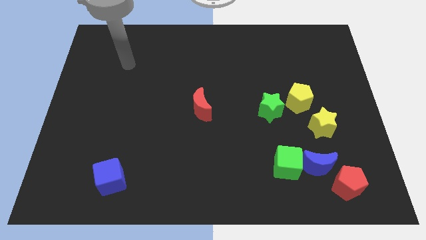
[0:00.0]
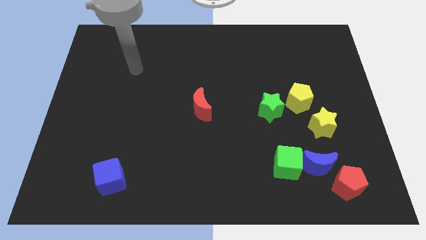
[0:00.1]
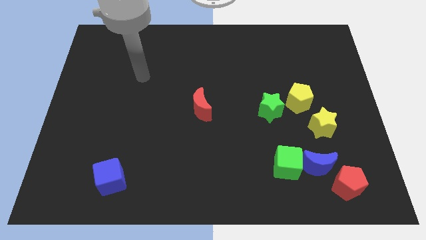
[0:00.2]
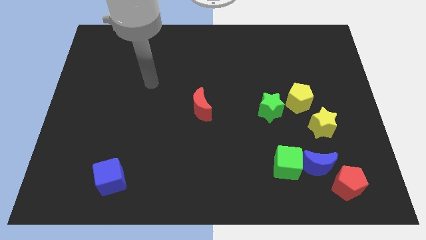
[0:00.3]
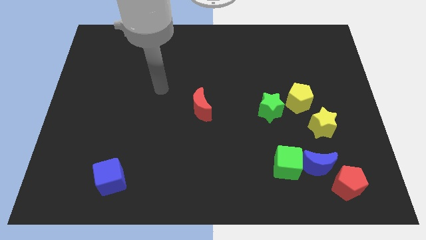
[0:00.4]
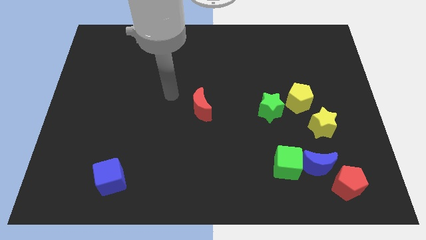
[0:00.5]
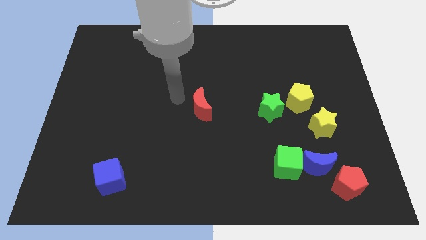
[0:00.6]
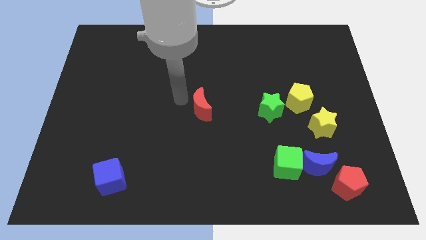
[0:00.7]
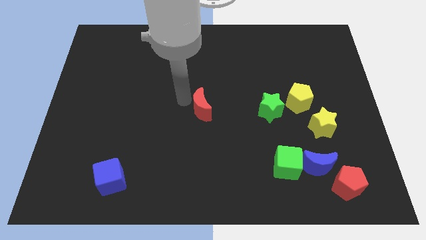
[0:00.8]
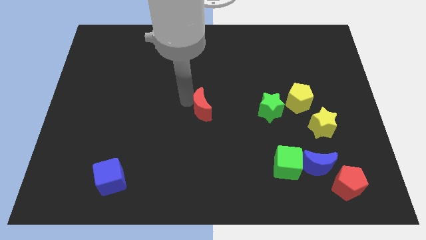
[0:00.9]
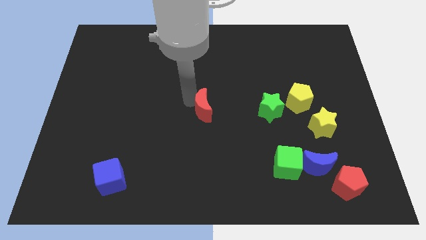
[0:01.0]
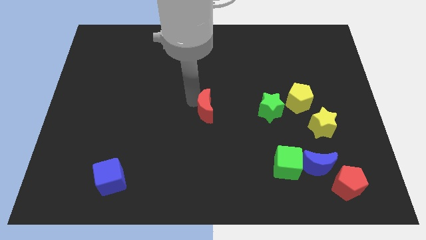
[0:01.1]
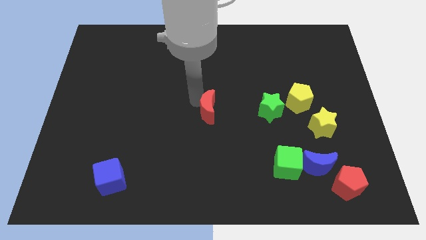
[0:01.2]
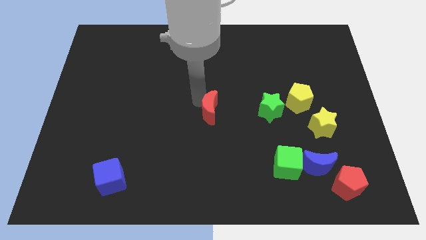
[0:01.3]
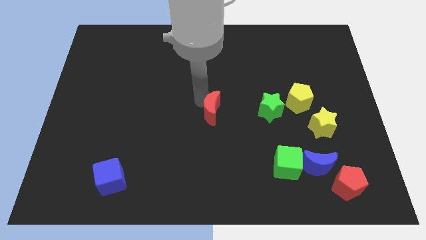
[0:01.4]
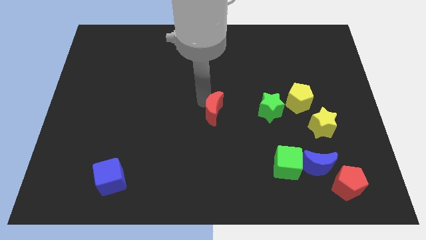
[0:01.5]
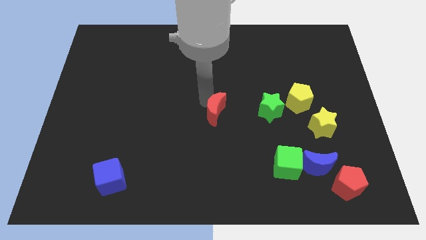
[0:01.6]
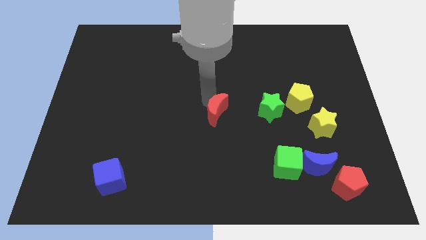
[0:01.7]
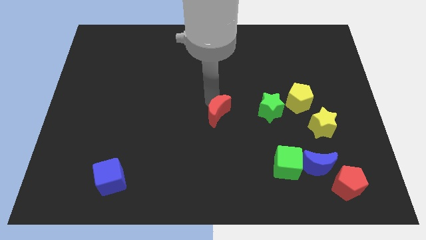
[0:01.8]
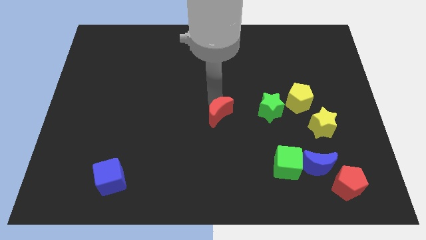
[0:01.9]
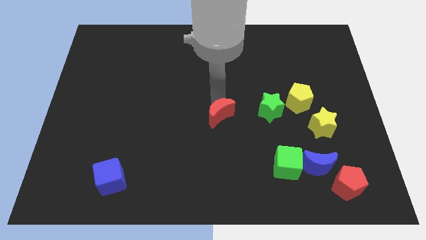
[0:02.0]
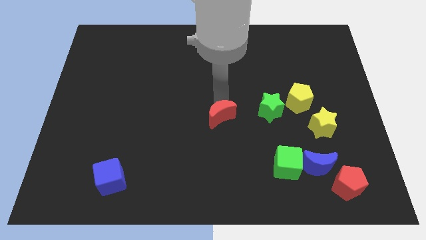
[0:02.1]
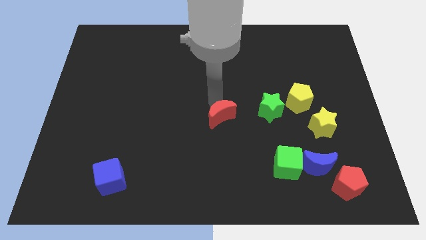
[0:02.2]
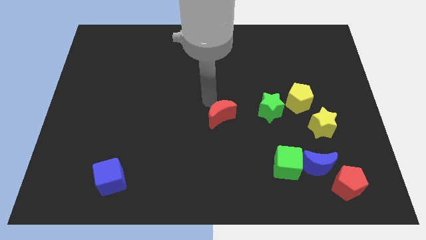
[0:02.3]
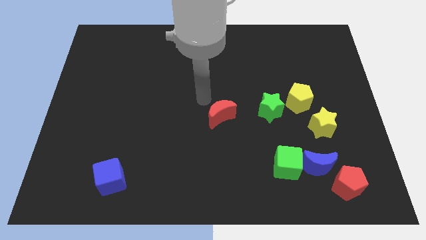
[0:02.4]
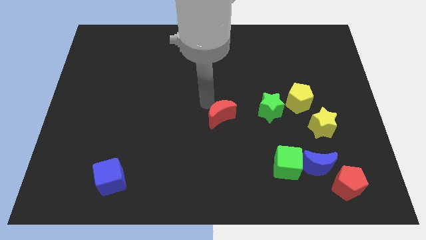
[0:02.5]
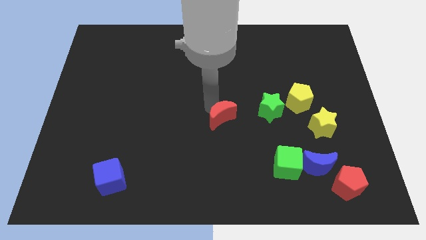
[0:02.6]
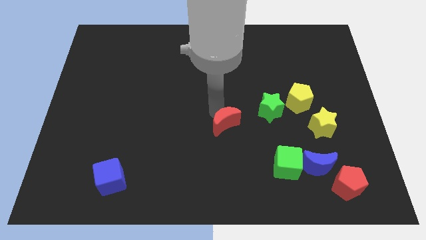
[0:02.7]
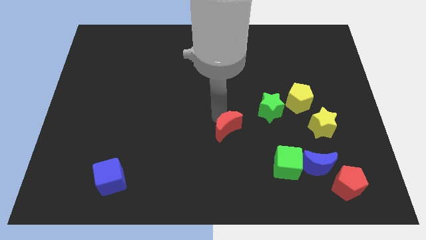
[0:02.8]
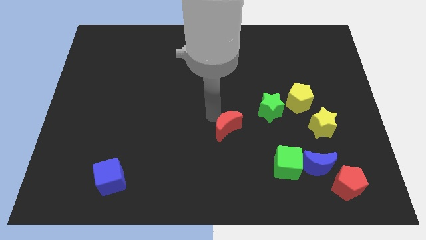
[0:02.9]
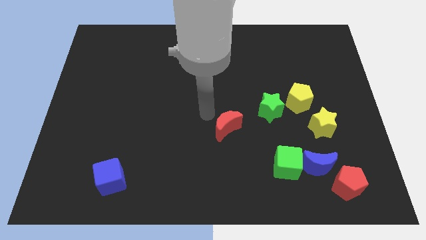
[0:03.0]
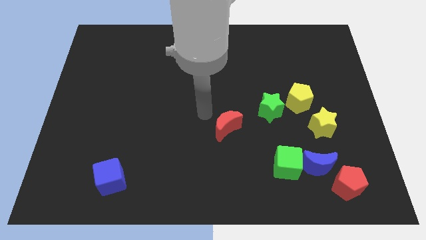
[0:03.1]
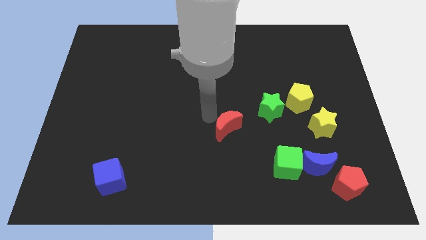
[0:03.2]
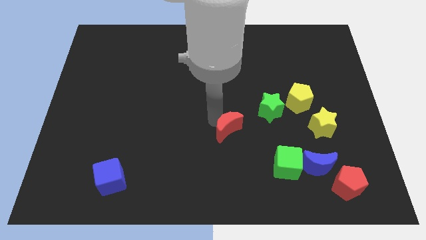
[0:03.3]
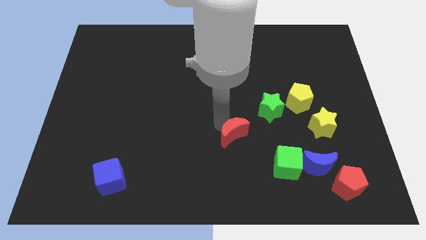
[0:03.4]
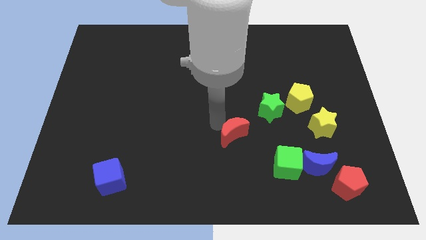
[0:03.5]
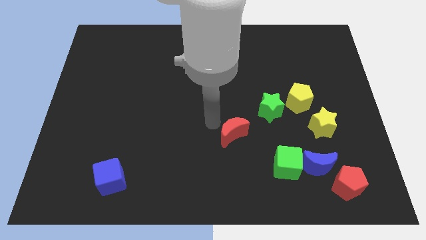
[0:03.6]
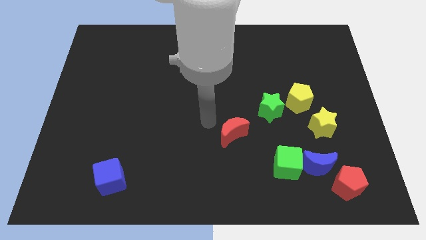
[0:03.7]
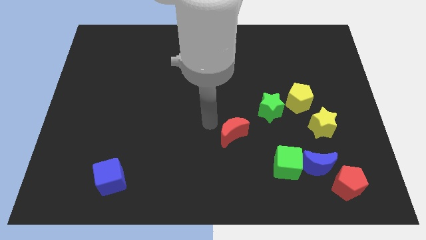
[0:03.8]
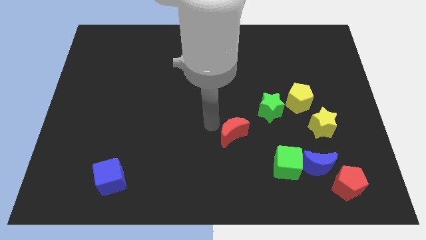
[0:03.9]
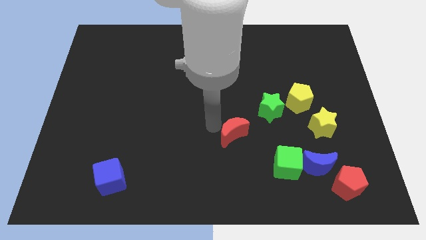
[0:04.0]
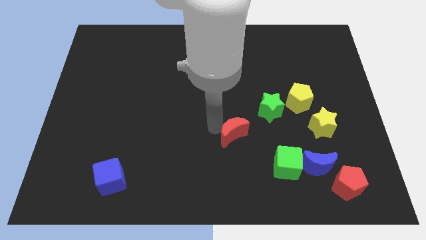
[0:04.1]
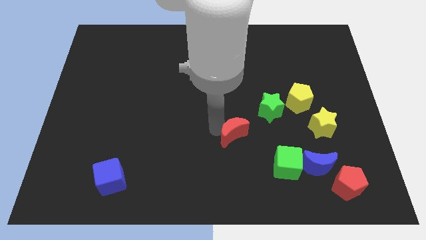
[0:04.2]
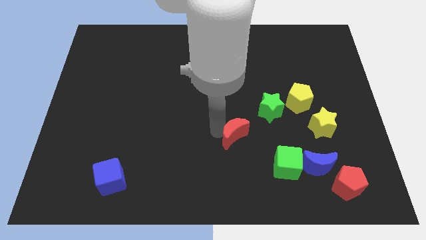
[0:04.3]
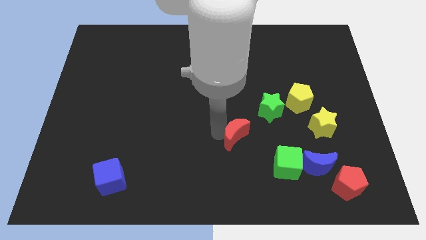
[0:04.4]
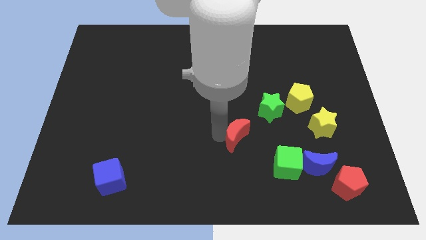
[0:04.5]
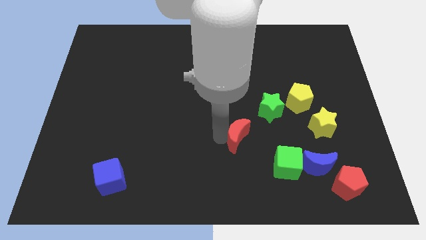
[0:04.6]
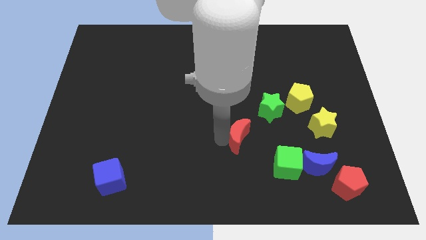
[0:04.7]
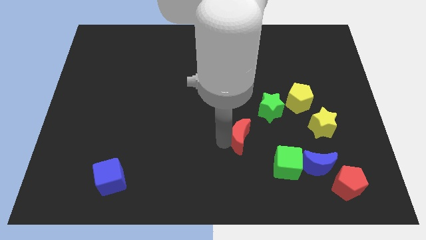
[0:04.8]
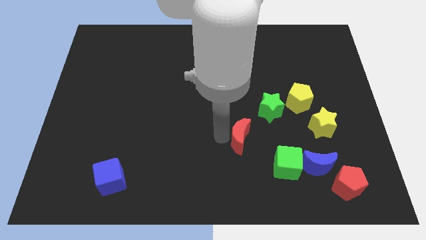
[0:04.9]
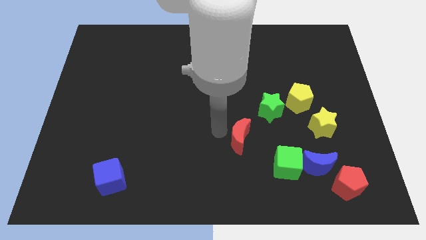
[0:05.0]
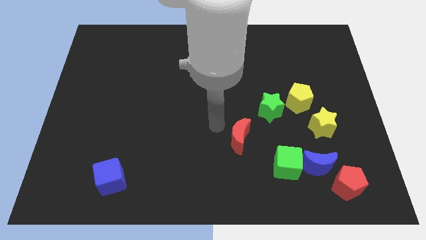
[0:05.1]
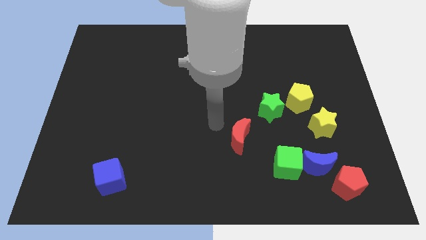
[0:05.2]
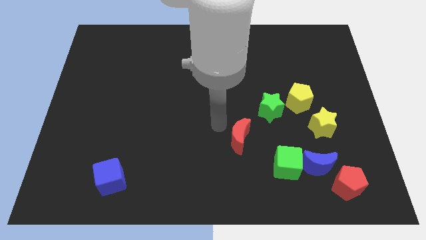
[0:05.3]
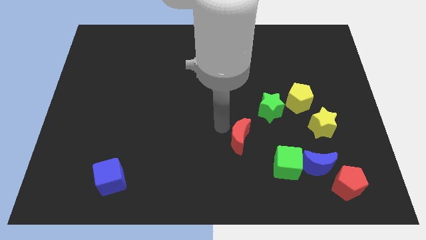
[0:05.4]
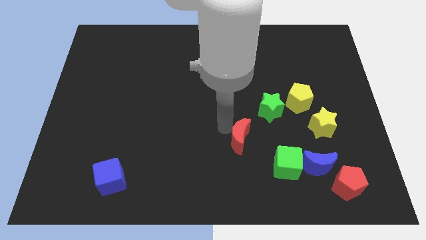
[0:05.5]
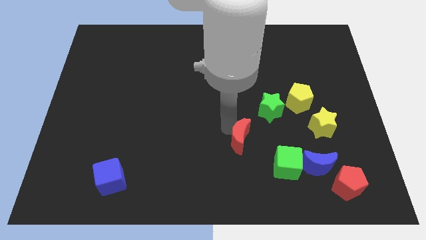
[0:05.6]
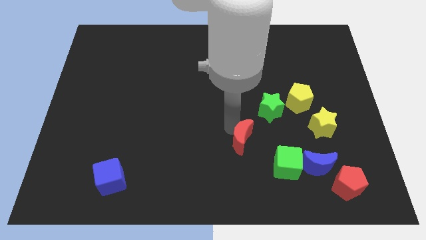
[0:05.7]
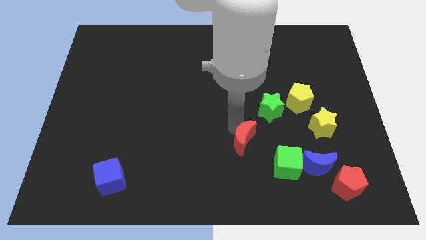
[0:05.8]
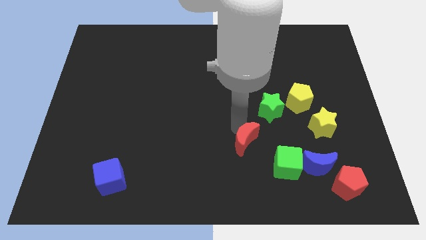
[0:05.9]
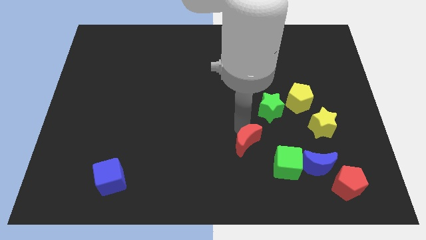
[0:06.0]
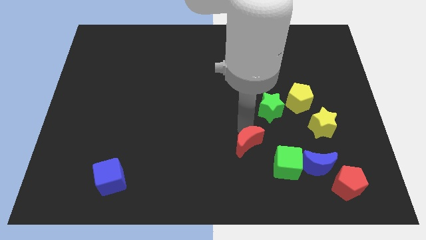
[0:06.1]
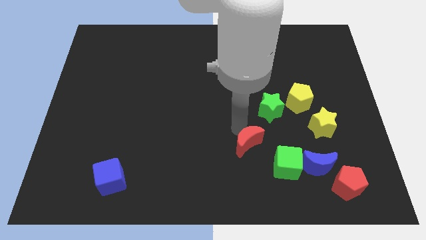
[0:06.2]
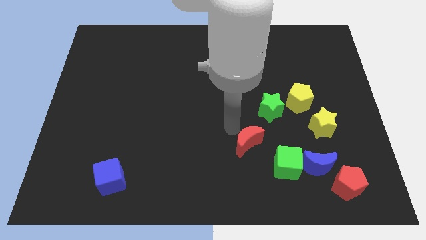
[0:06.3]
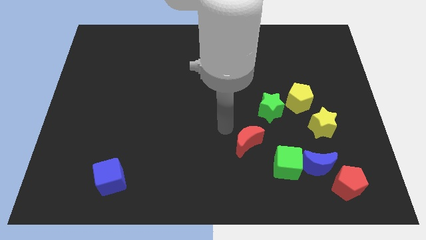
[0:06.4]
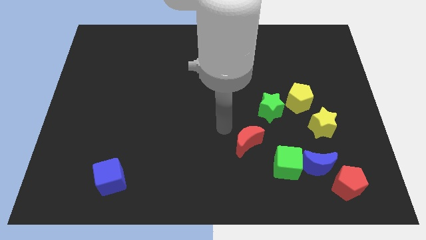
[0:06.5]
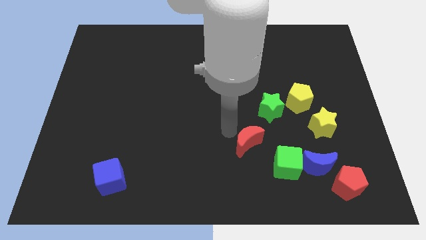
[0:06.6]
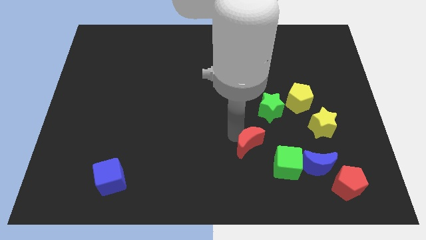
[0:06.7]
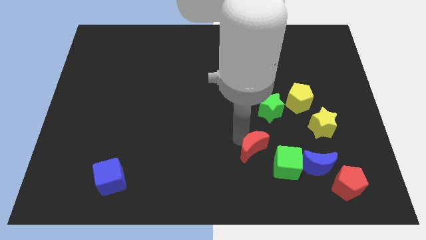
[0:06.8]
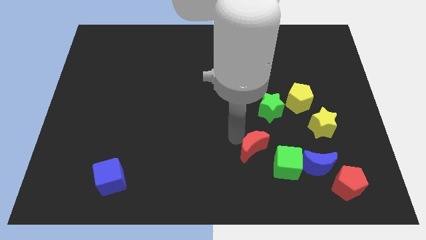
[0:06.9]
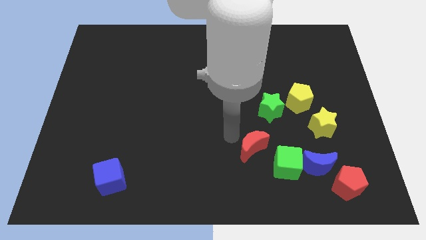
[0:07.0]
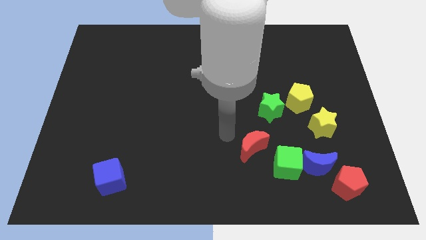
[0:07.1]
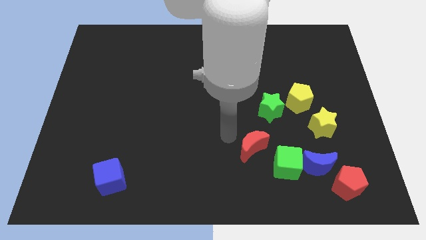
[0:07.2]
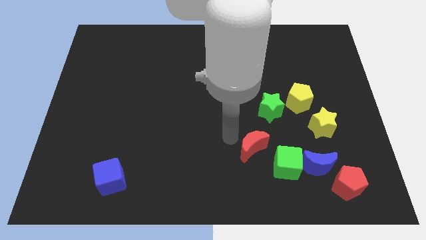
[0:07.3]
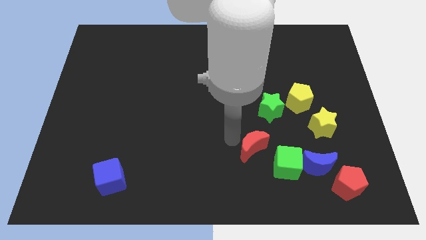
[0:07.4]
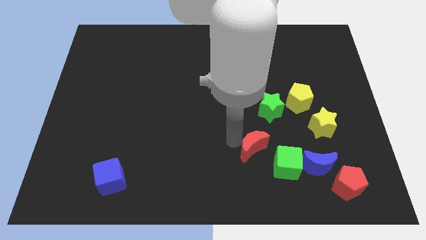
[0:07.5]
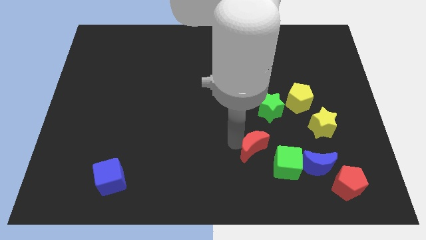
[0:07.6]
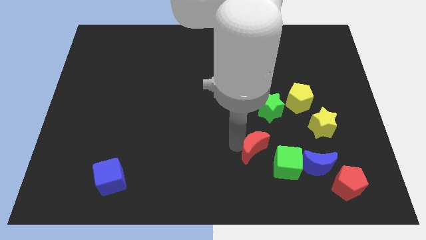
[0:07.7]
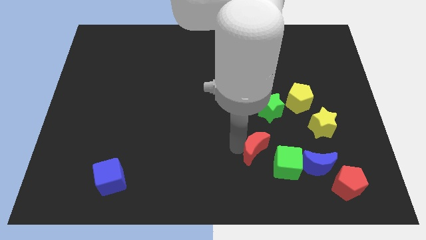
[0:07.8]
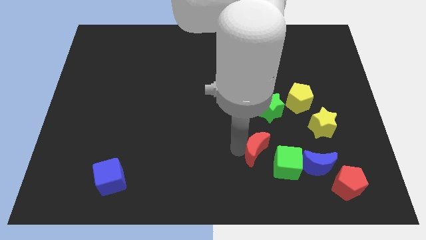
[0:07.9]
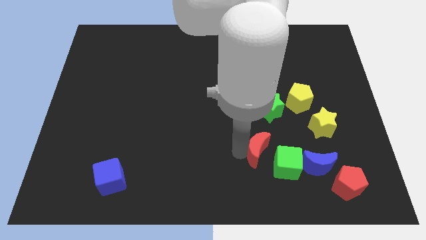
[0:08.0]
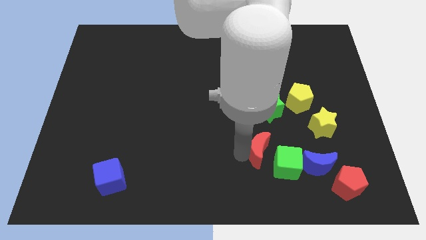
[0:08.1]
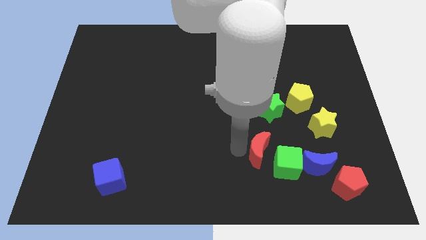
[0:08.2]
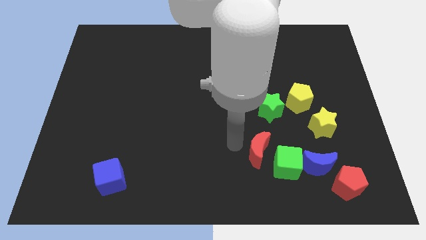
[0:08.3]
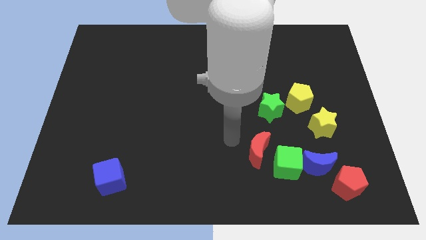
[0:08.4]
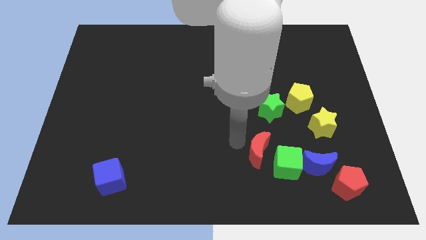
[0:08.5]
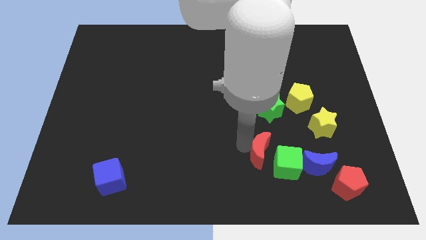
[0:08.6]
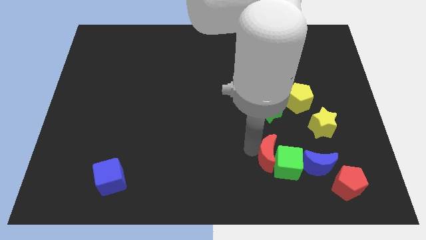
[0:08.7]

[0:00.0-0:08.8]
put the red moon close to the green cube
